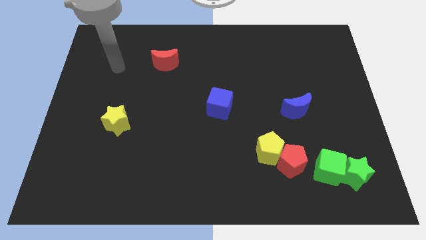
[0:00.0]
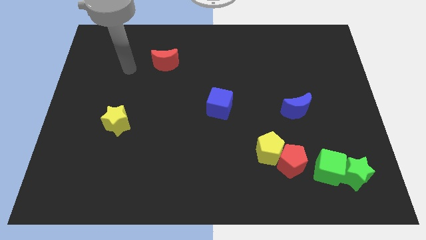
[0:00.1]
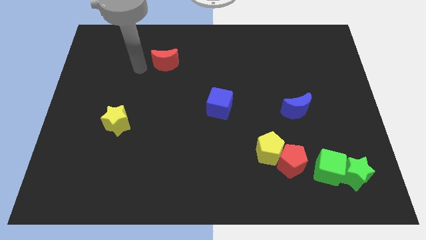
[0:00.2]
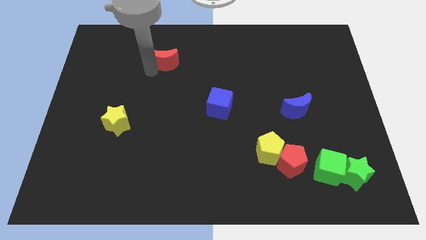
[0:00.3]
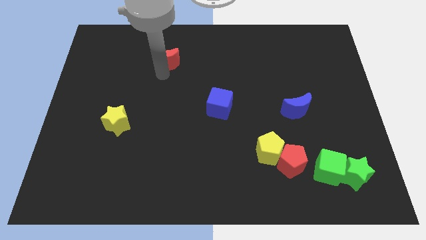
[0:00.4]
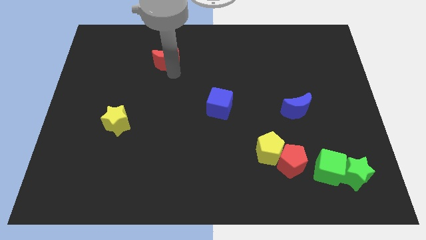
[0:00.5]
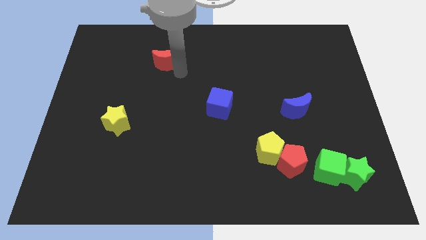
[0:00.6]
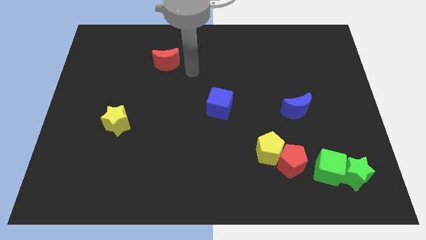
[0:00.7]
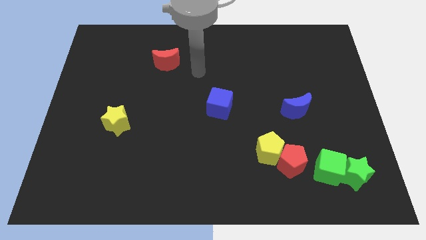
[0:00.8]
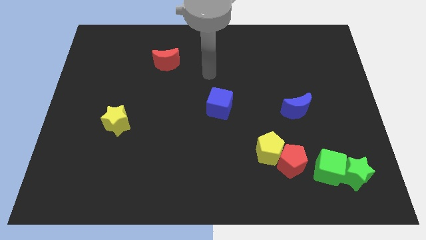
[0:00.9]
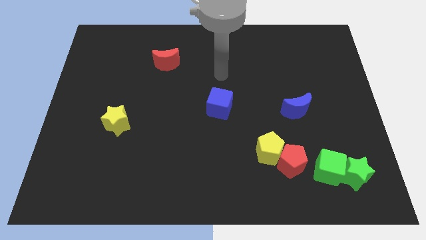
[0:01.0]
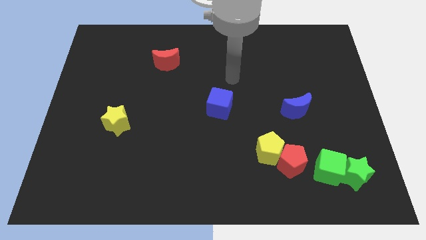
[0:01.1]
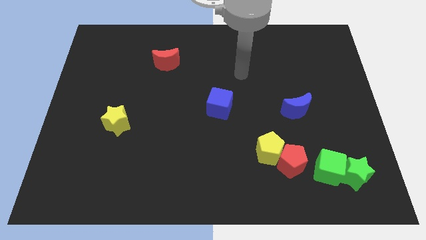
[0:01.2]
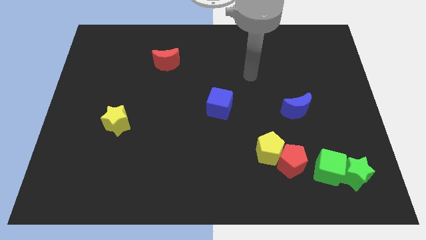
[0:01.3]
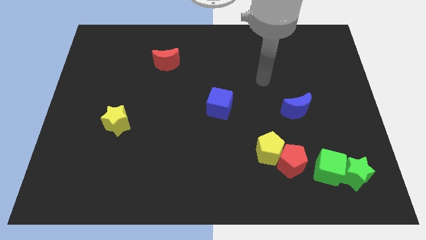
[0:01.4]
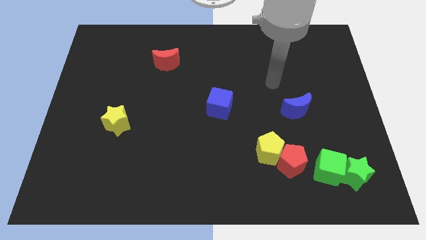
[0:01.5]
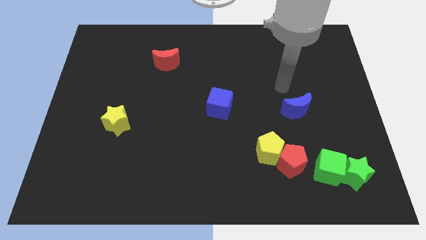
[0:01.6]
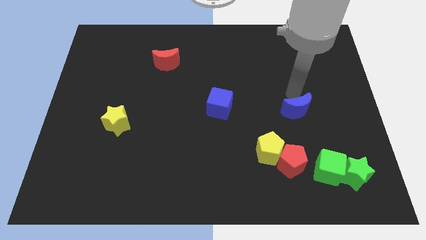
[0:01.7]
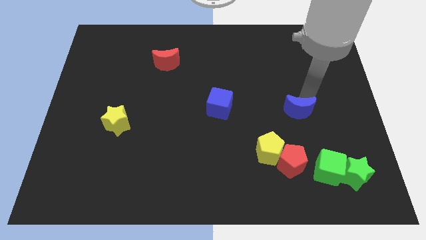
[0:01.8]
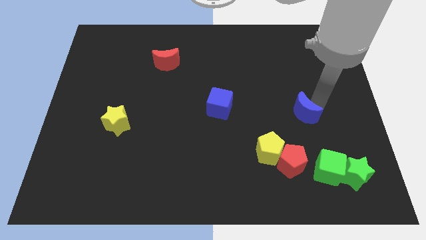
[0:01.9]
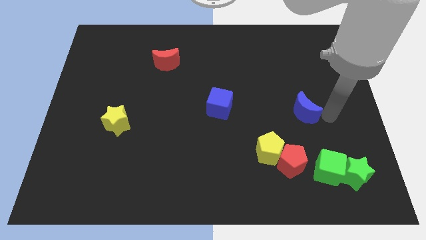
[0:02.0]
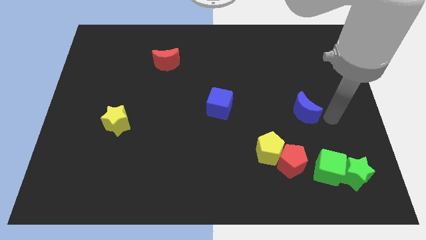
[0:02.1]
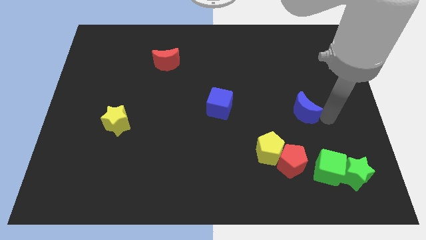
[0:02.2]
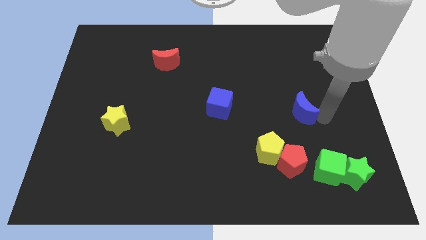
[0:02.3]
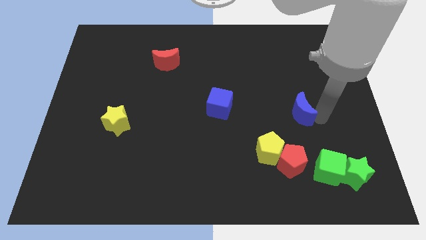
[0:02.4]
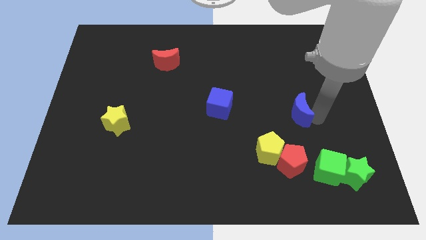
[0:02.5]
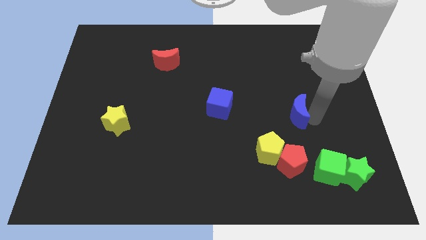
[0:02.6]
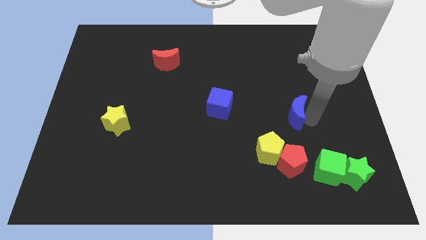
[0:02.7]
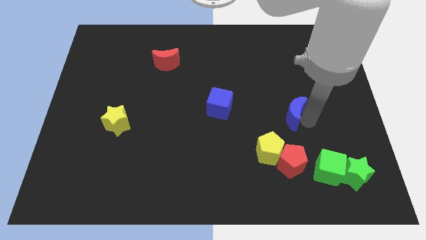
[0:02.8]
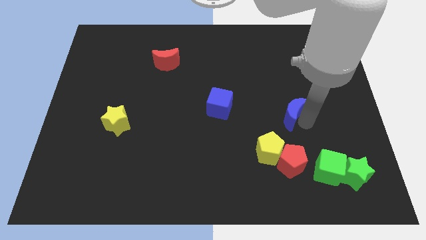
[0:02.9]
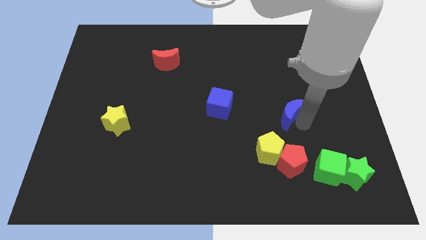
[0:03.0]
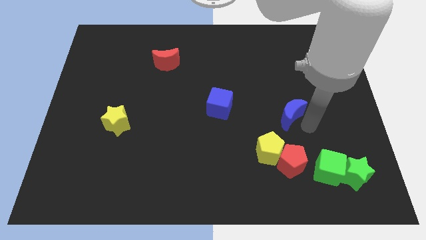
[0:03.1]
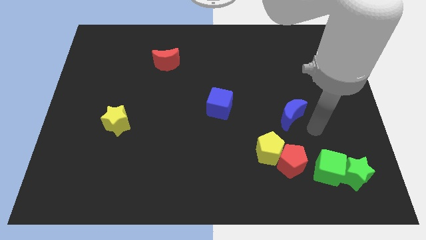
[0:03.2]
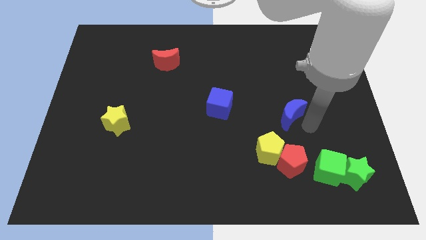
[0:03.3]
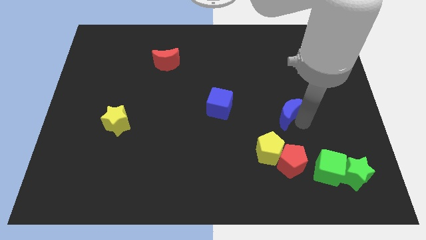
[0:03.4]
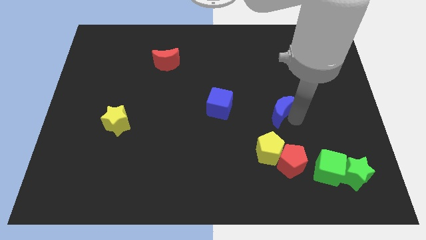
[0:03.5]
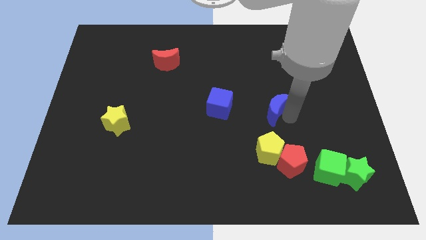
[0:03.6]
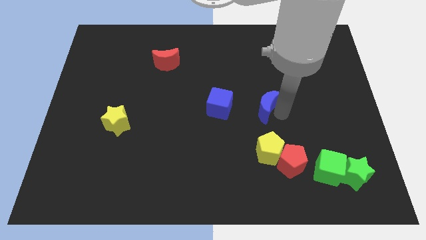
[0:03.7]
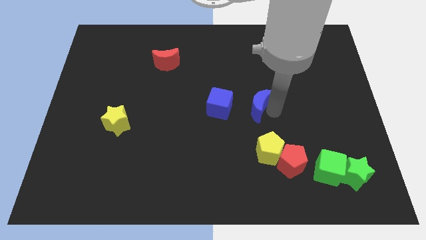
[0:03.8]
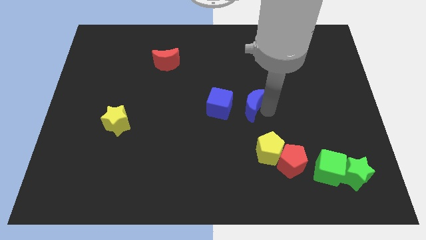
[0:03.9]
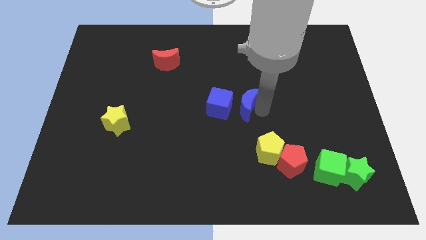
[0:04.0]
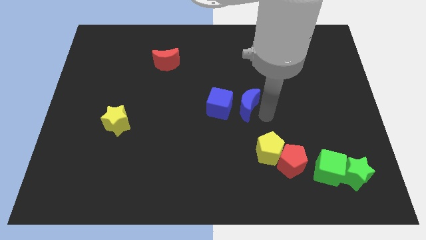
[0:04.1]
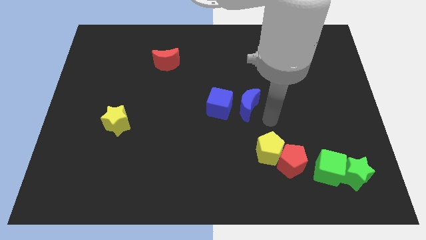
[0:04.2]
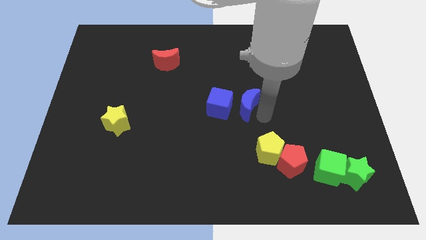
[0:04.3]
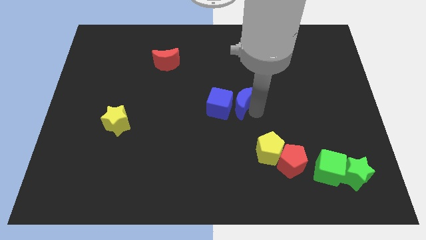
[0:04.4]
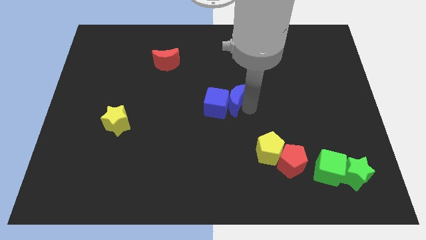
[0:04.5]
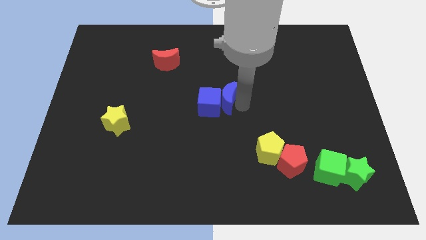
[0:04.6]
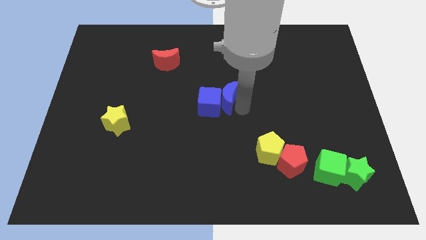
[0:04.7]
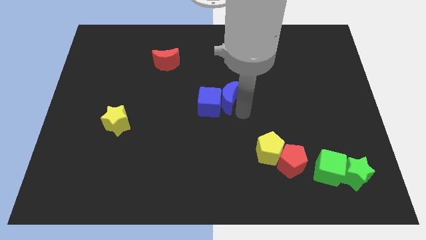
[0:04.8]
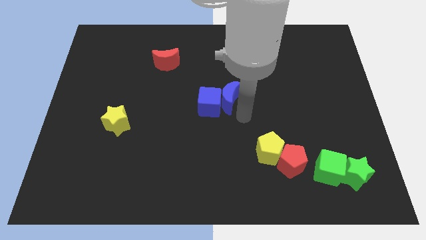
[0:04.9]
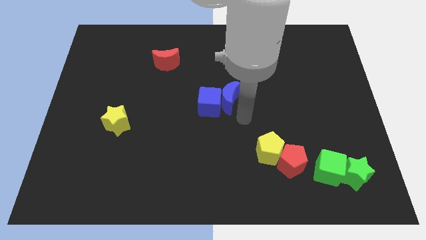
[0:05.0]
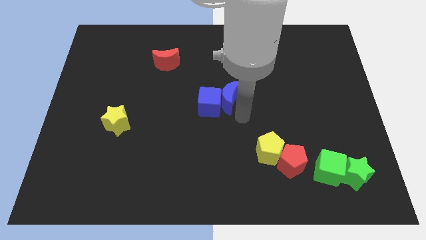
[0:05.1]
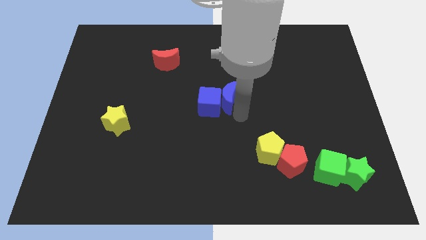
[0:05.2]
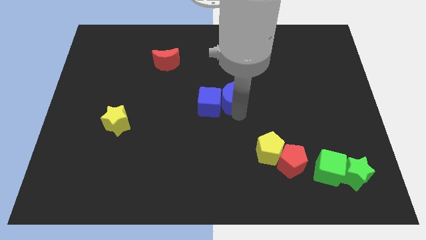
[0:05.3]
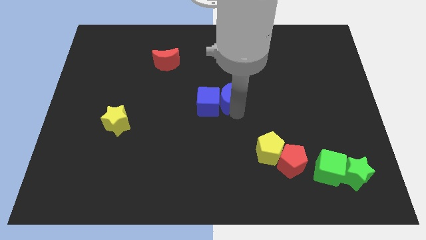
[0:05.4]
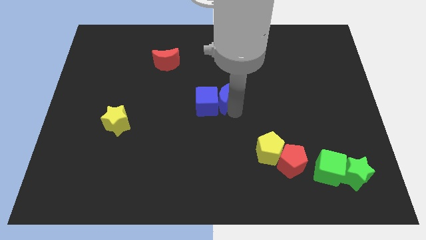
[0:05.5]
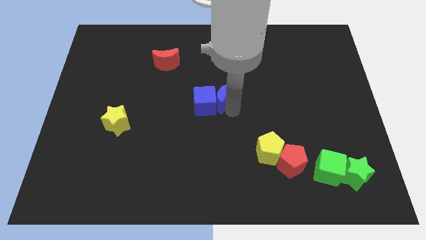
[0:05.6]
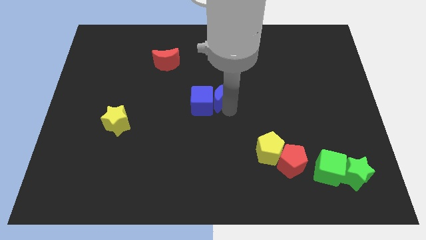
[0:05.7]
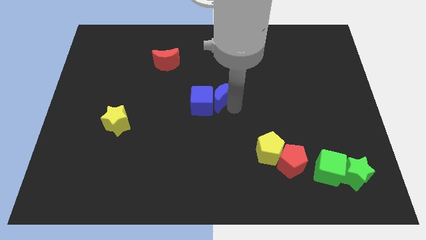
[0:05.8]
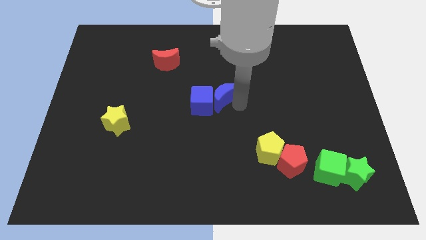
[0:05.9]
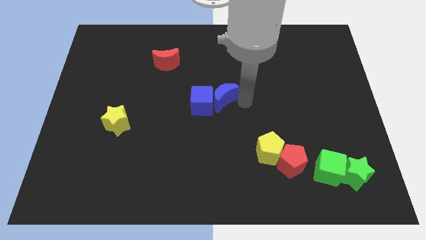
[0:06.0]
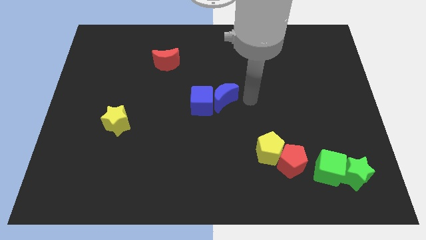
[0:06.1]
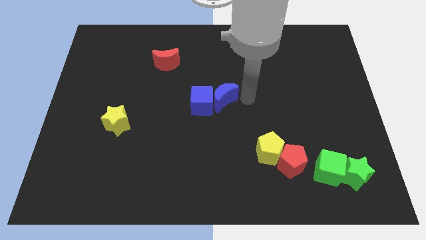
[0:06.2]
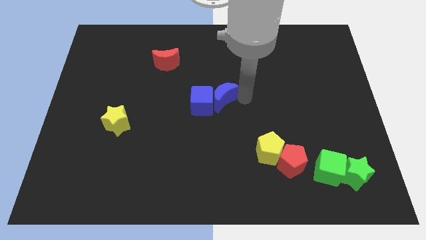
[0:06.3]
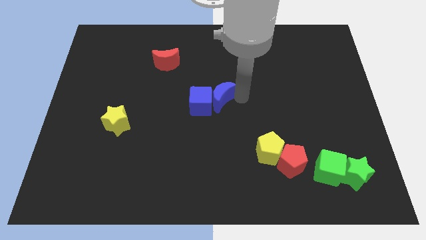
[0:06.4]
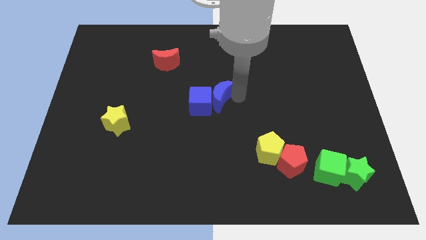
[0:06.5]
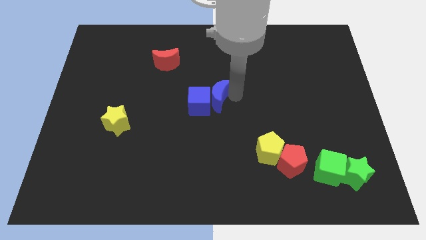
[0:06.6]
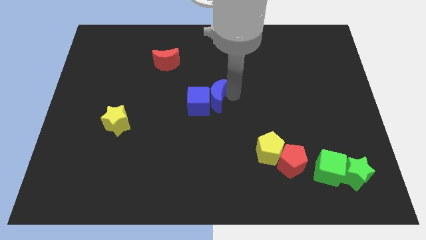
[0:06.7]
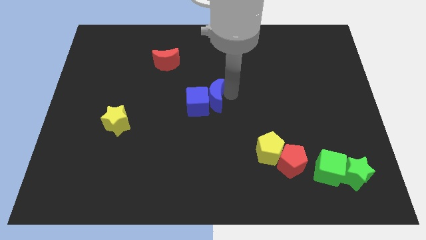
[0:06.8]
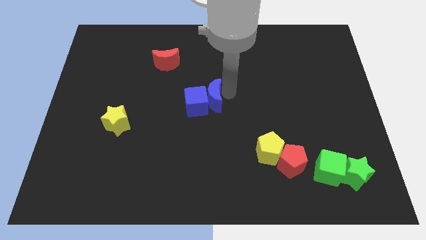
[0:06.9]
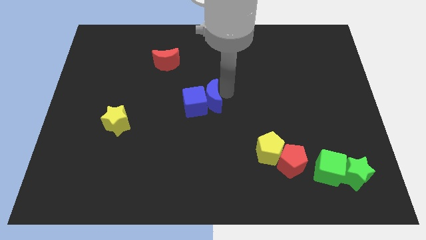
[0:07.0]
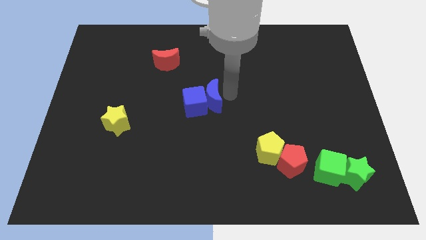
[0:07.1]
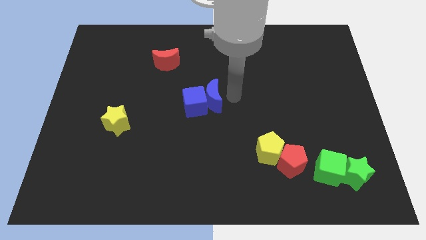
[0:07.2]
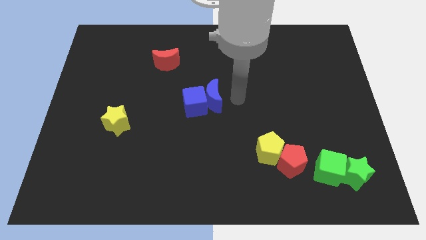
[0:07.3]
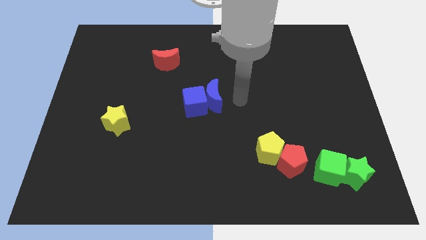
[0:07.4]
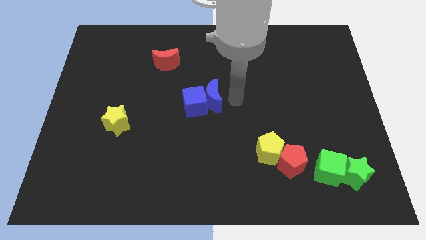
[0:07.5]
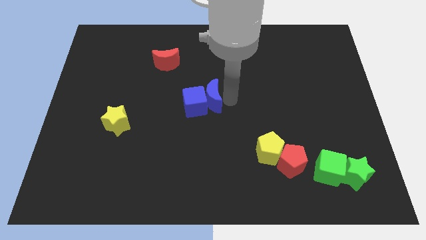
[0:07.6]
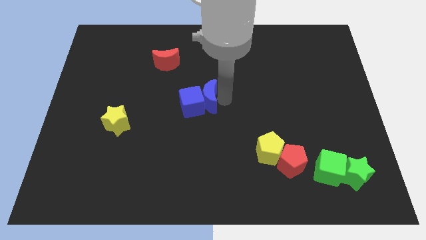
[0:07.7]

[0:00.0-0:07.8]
slide the blue moon to the left
